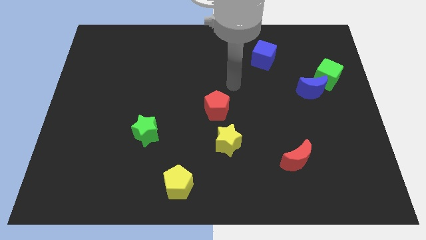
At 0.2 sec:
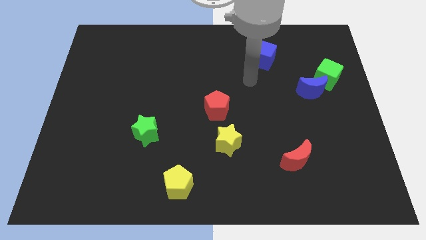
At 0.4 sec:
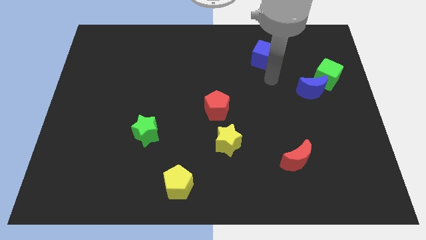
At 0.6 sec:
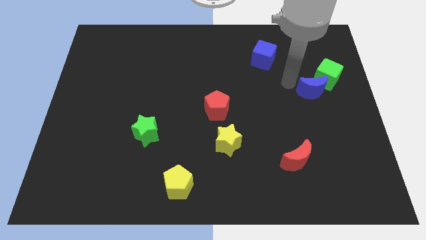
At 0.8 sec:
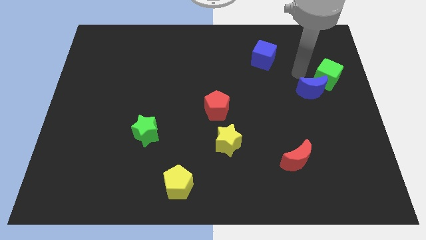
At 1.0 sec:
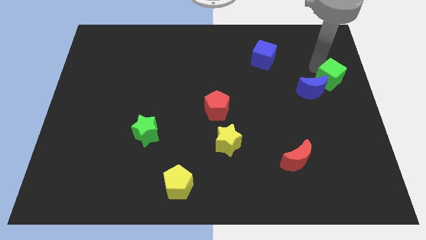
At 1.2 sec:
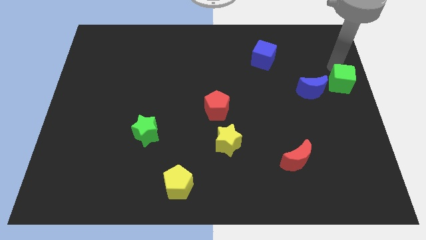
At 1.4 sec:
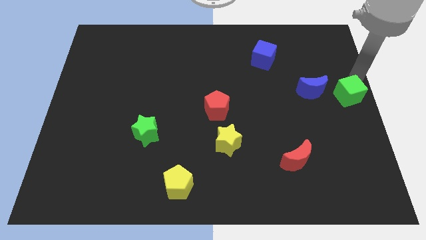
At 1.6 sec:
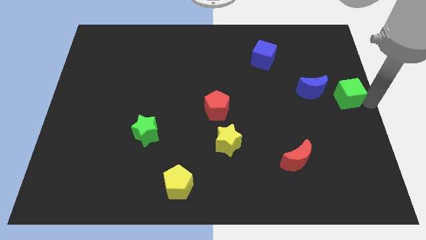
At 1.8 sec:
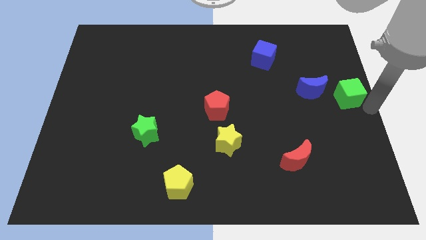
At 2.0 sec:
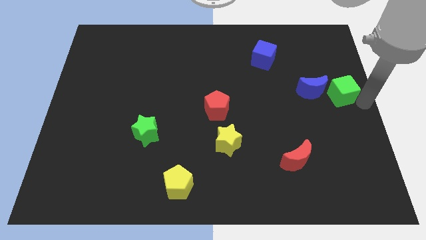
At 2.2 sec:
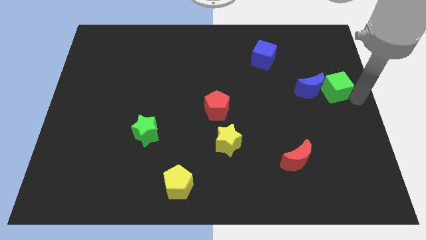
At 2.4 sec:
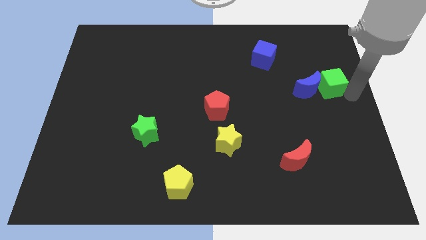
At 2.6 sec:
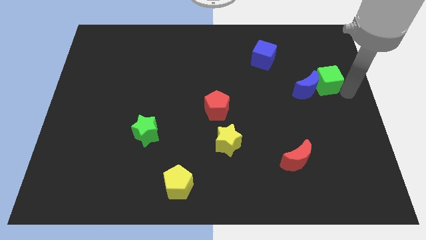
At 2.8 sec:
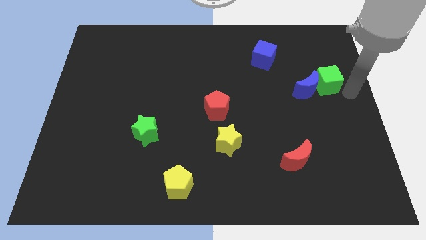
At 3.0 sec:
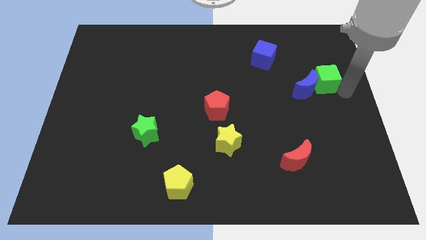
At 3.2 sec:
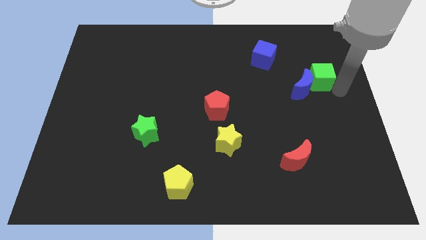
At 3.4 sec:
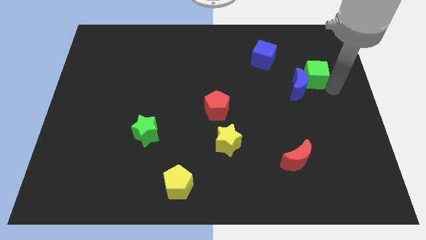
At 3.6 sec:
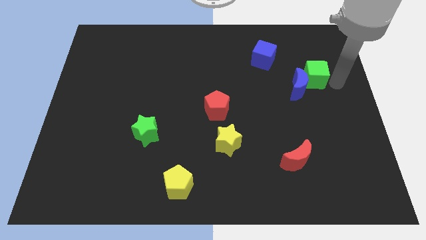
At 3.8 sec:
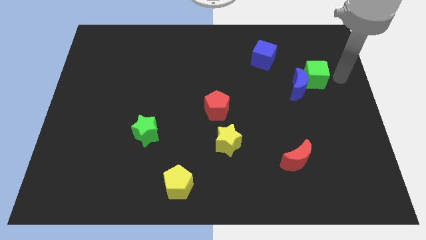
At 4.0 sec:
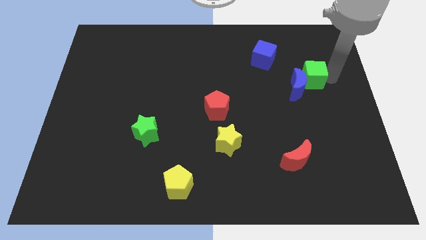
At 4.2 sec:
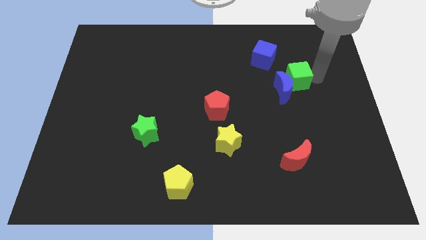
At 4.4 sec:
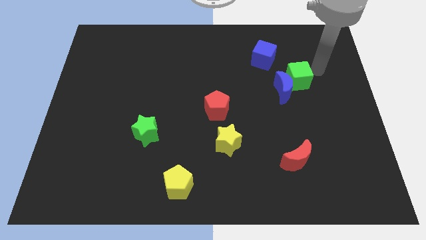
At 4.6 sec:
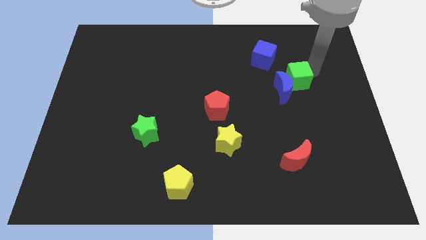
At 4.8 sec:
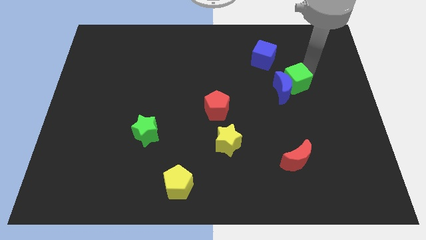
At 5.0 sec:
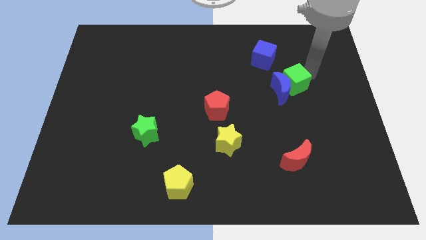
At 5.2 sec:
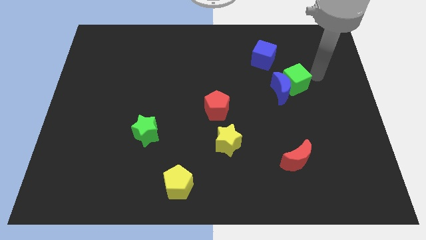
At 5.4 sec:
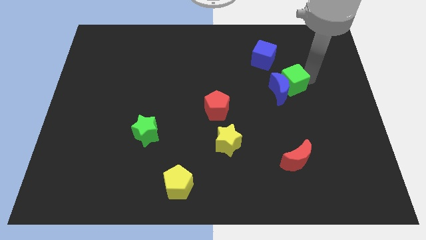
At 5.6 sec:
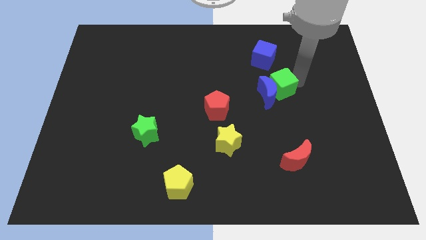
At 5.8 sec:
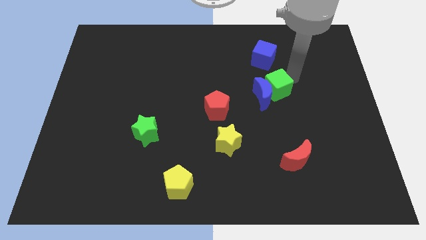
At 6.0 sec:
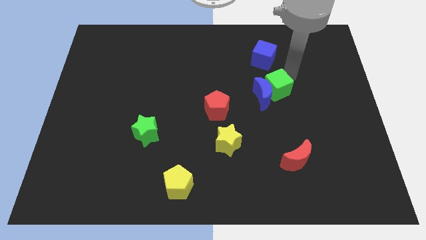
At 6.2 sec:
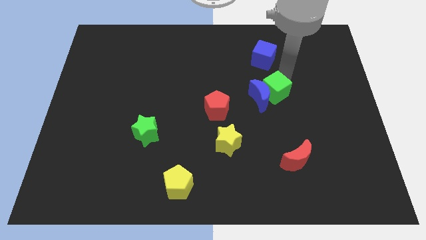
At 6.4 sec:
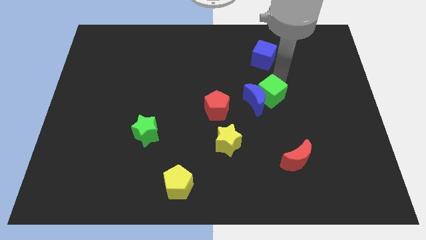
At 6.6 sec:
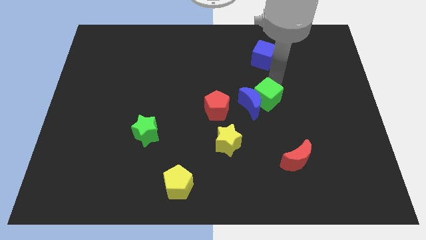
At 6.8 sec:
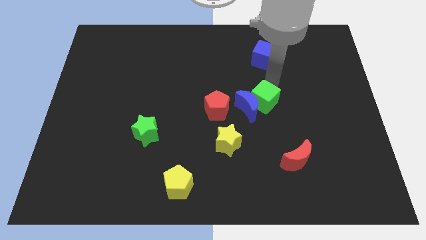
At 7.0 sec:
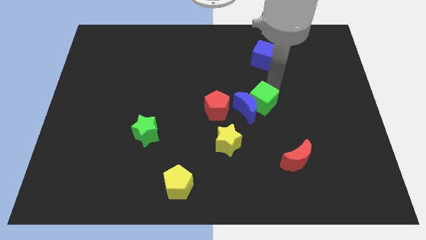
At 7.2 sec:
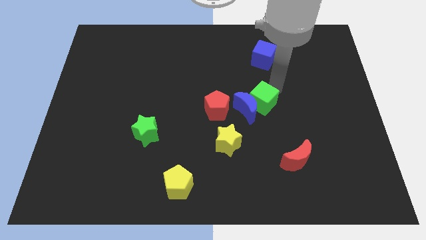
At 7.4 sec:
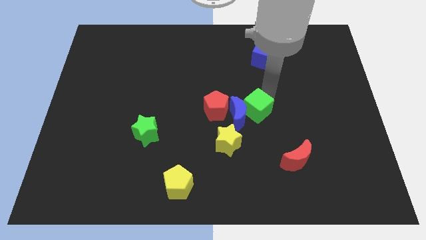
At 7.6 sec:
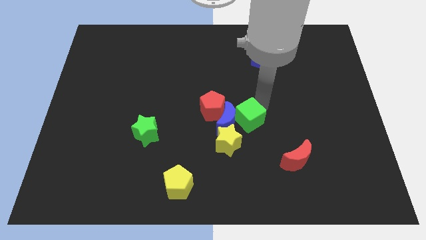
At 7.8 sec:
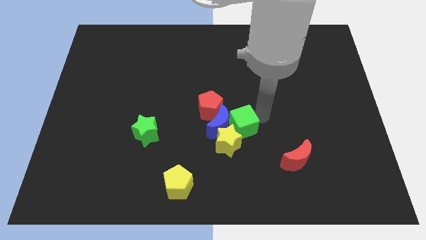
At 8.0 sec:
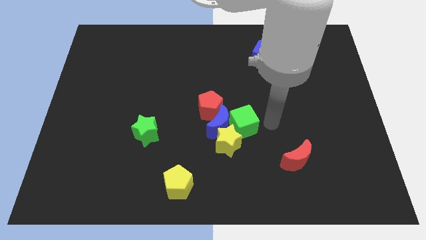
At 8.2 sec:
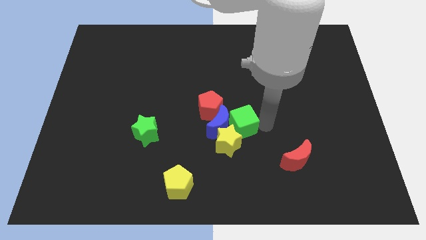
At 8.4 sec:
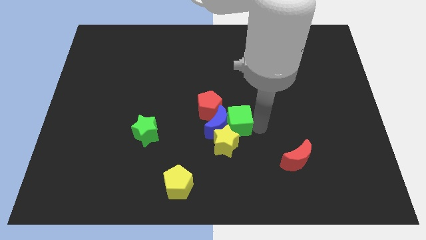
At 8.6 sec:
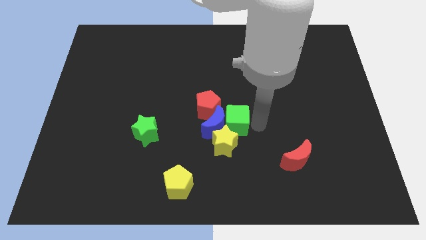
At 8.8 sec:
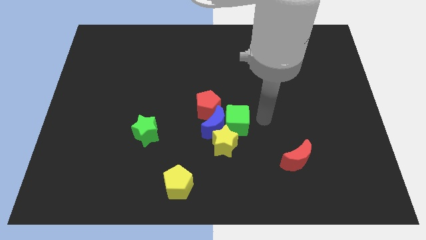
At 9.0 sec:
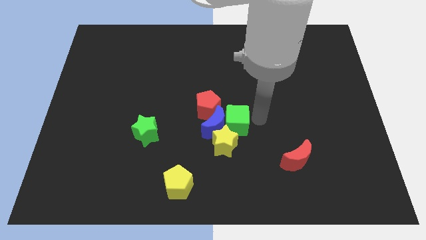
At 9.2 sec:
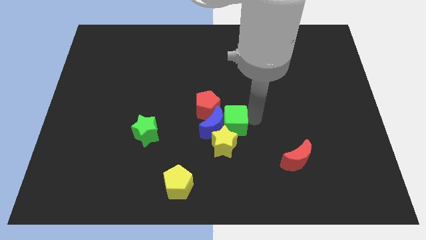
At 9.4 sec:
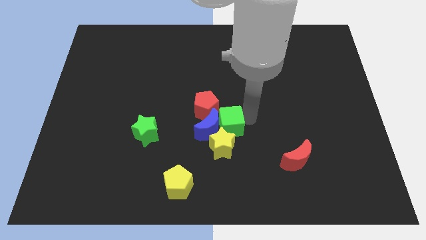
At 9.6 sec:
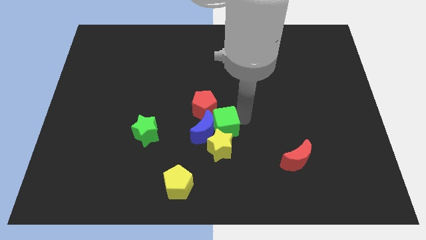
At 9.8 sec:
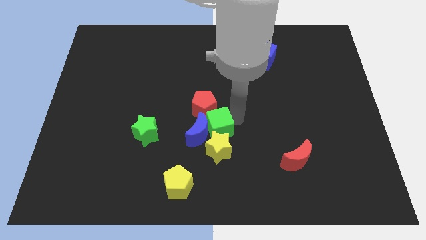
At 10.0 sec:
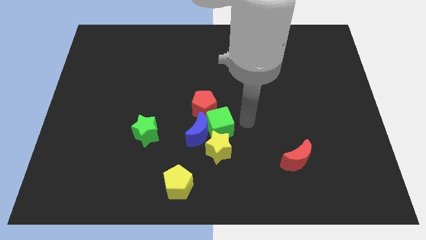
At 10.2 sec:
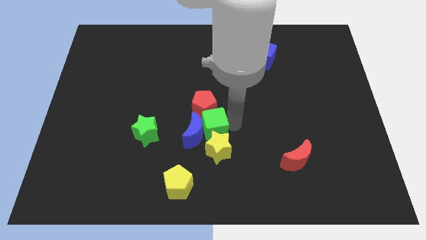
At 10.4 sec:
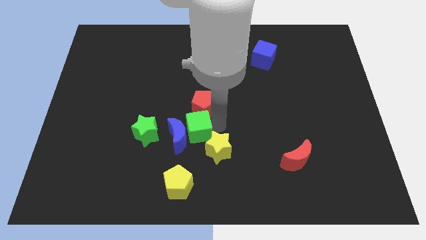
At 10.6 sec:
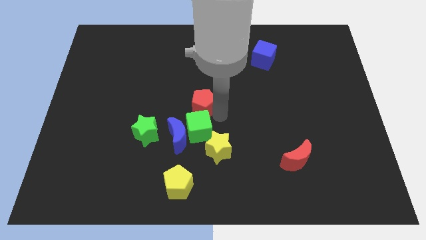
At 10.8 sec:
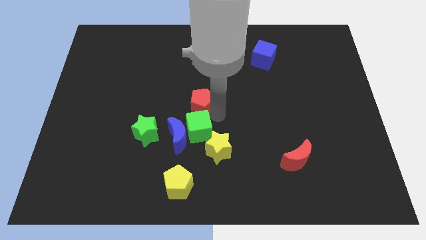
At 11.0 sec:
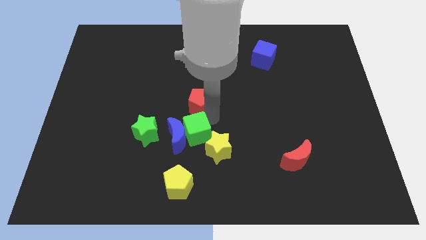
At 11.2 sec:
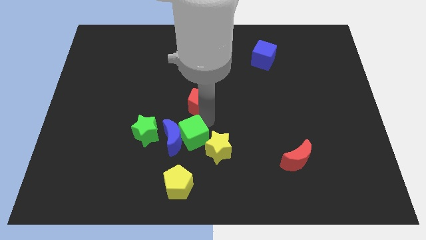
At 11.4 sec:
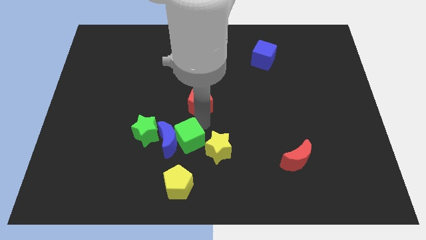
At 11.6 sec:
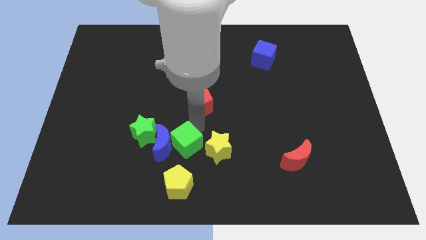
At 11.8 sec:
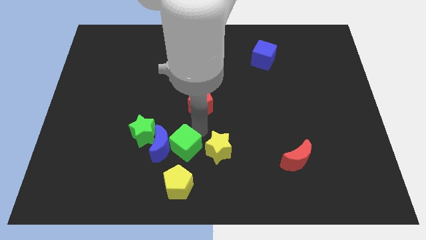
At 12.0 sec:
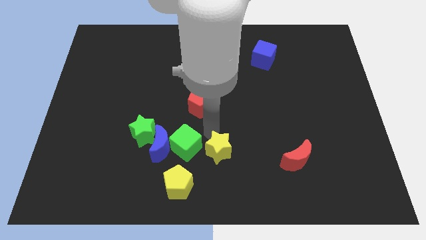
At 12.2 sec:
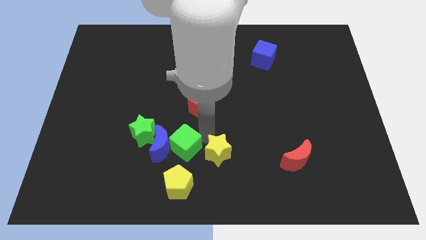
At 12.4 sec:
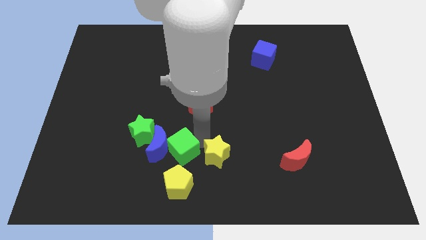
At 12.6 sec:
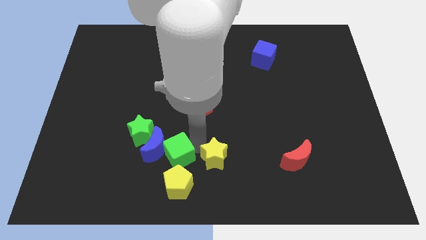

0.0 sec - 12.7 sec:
move the green cube to the top left side of the yellow pentagon
